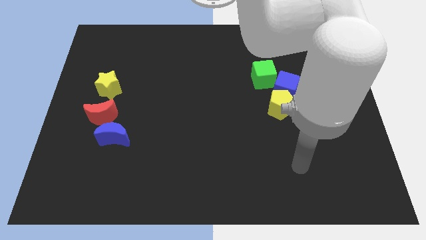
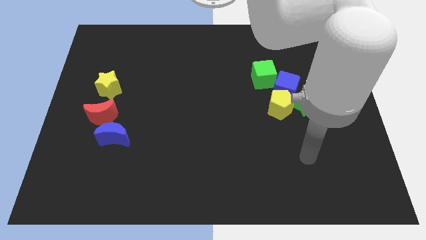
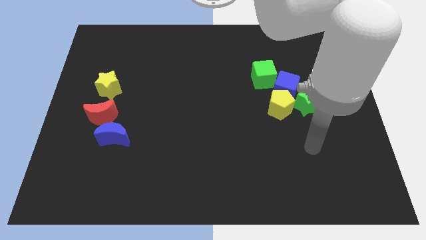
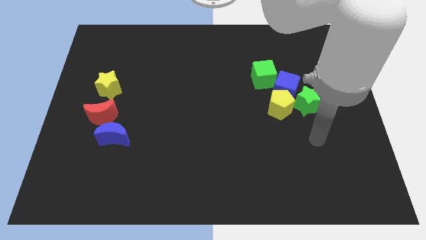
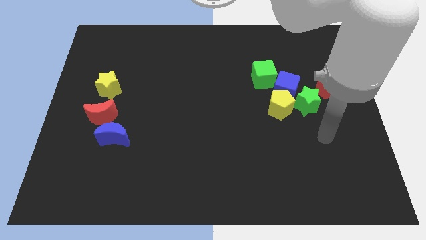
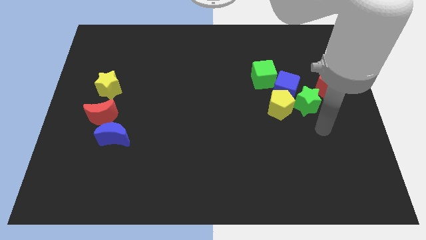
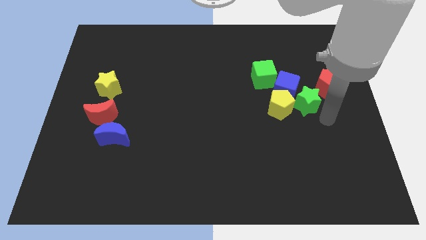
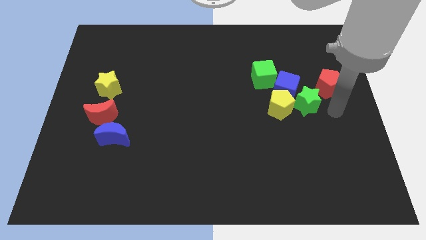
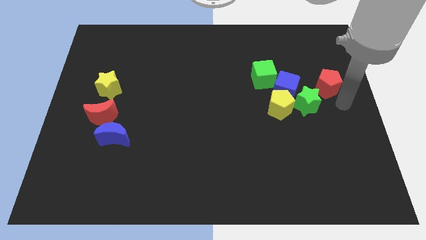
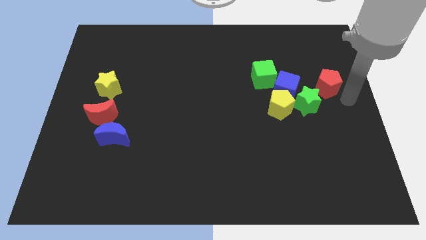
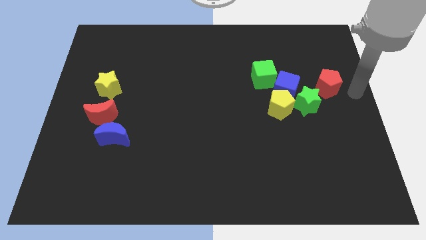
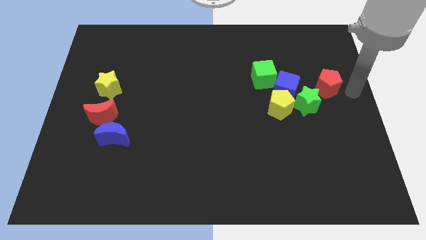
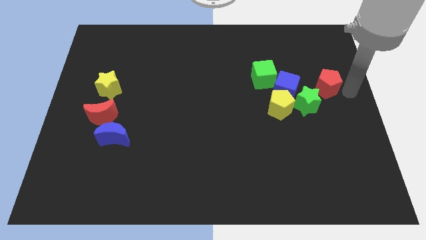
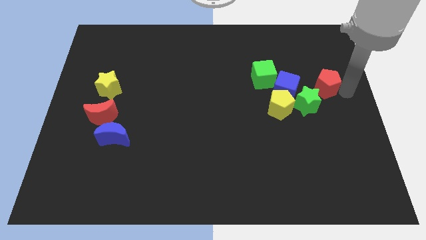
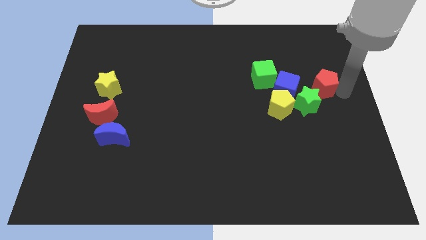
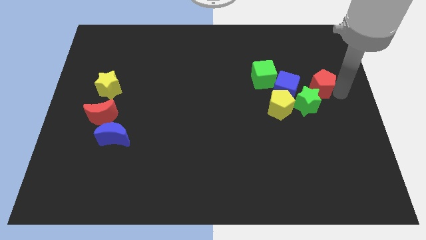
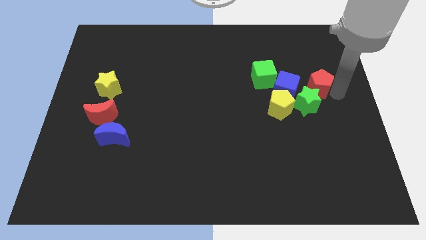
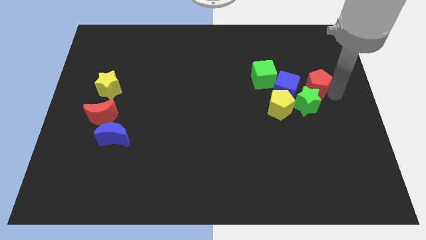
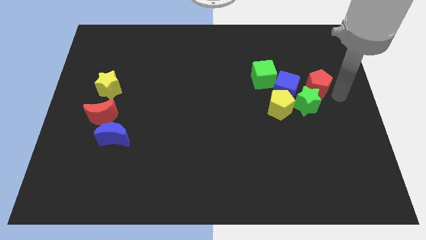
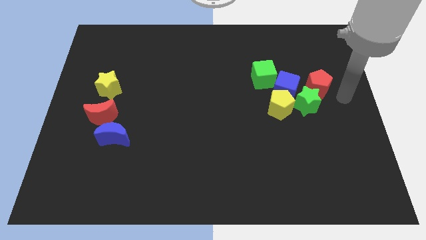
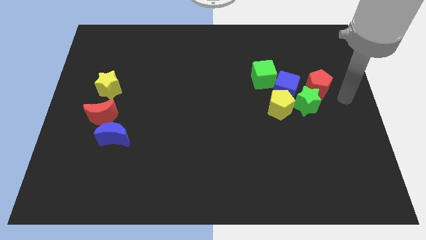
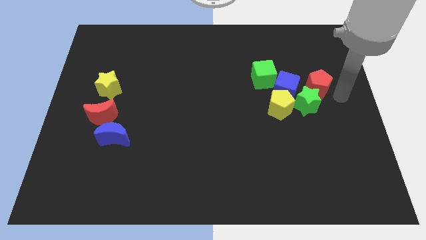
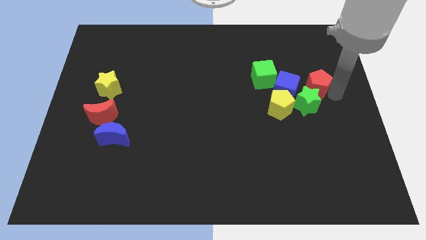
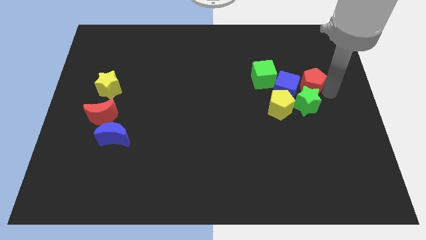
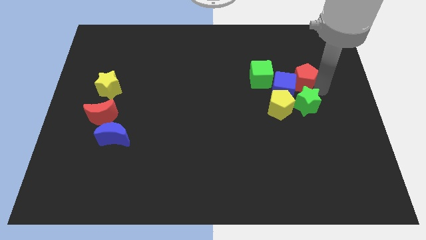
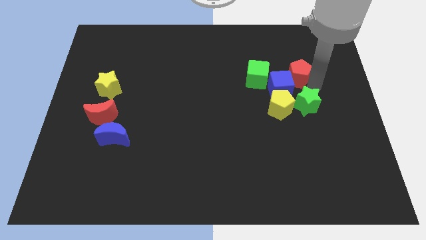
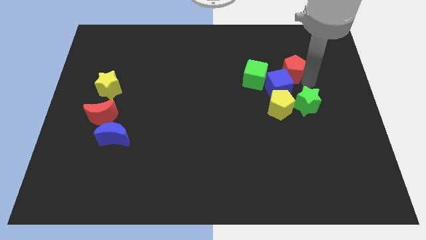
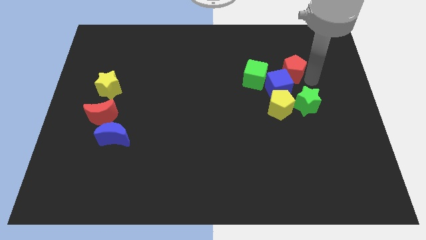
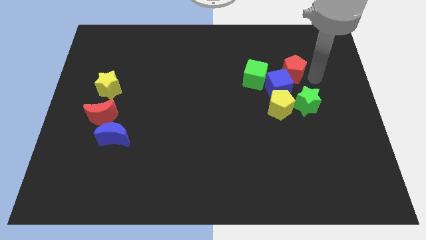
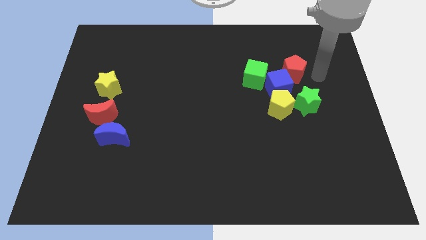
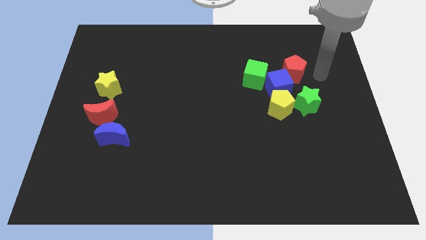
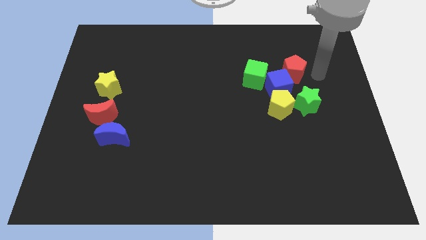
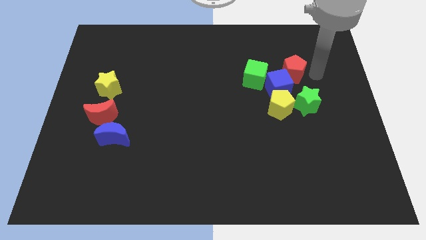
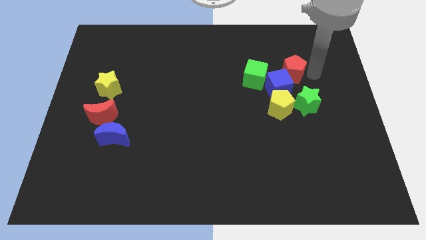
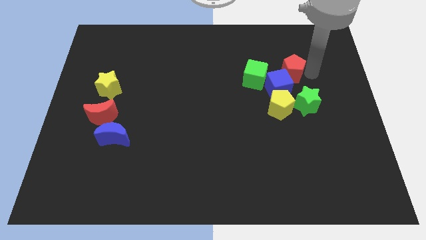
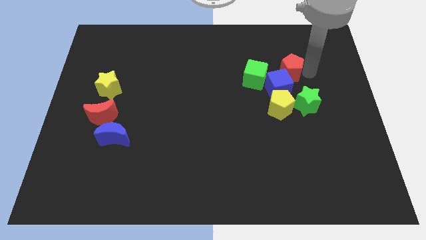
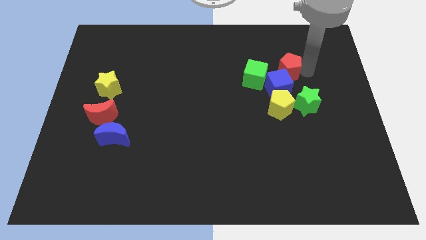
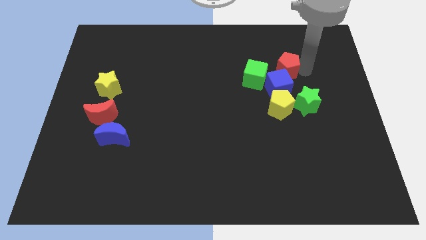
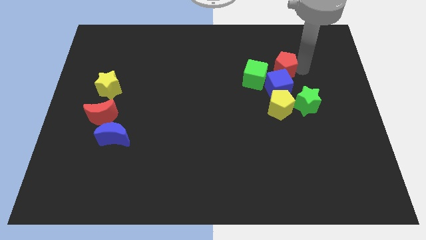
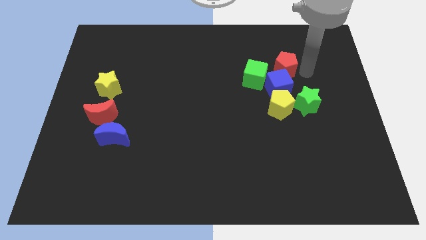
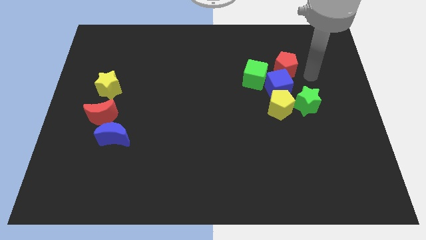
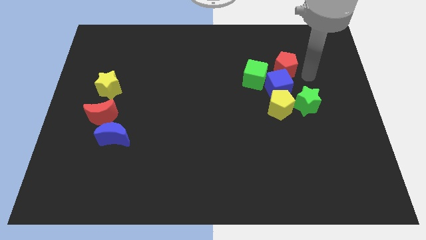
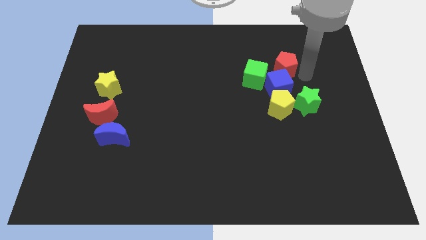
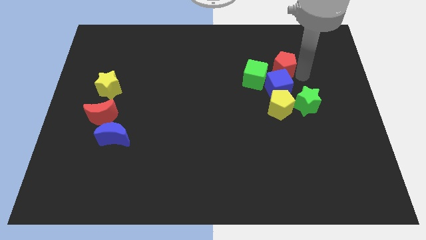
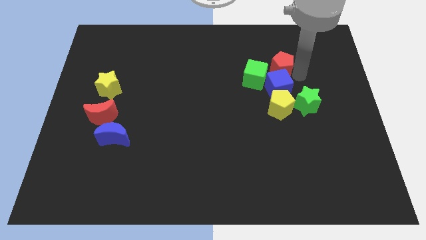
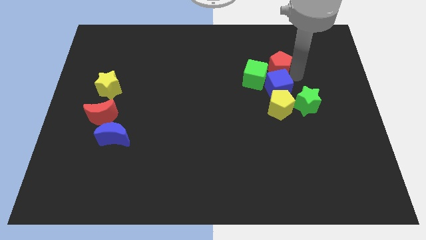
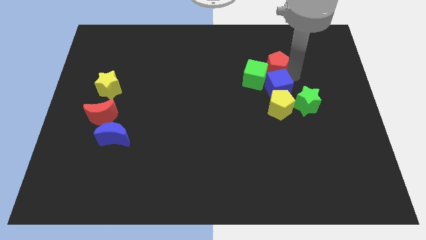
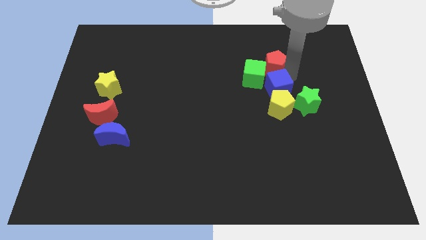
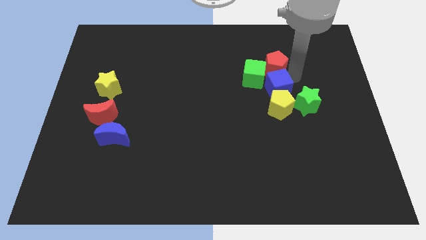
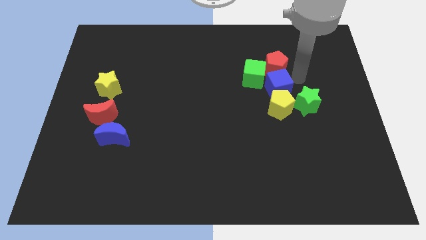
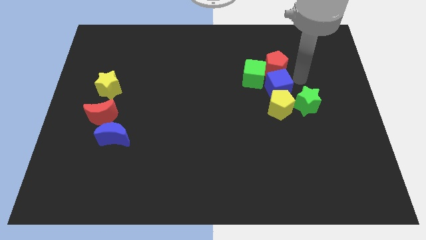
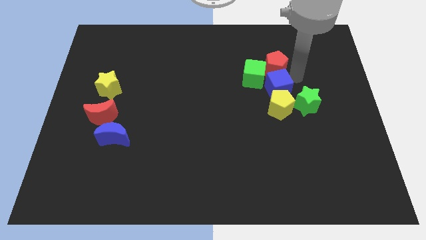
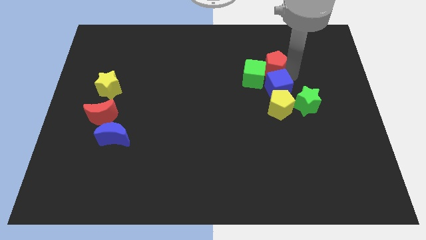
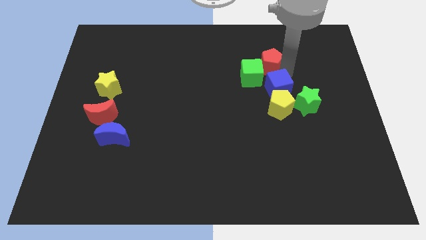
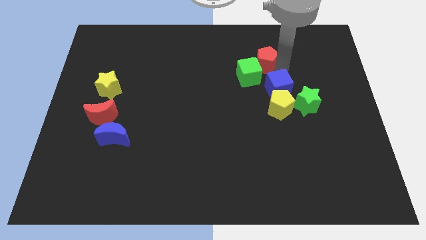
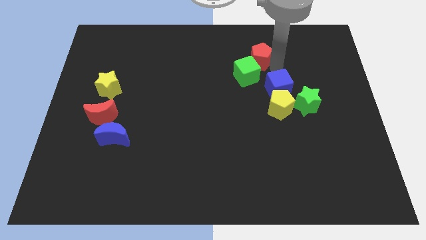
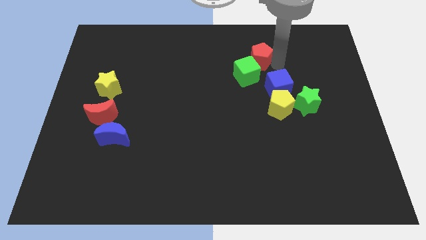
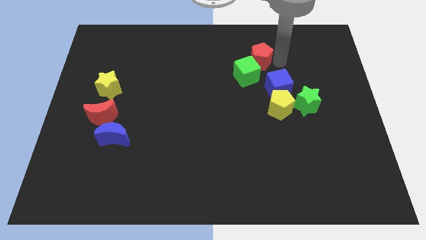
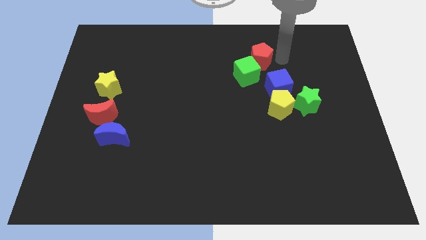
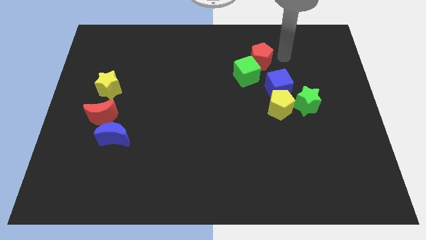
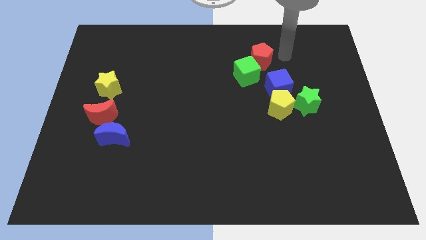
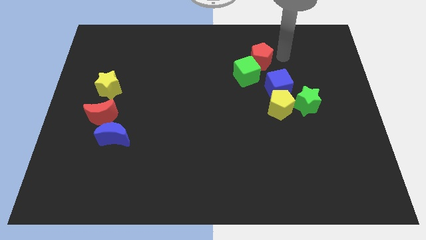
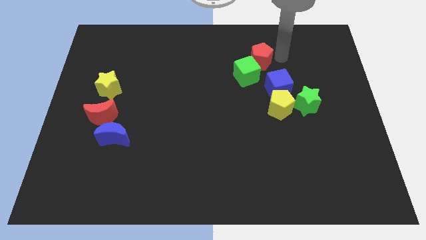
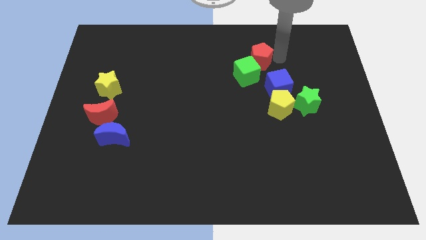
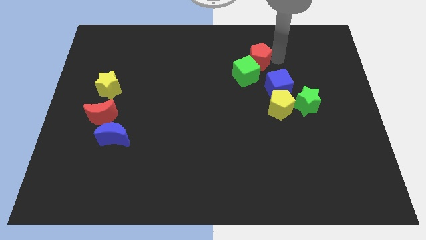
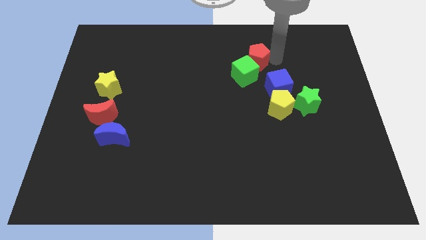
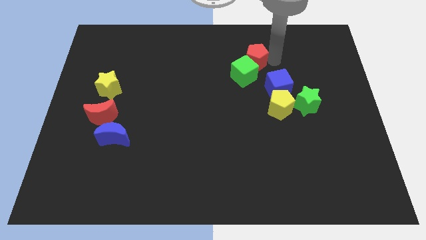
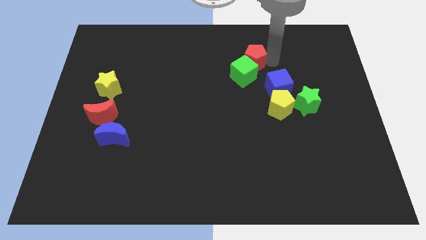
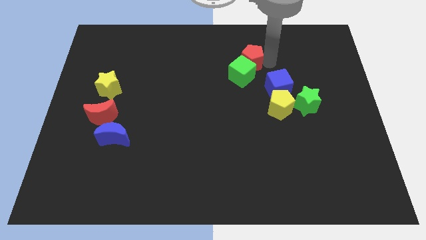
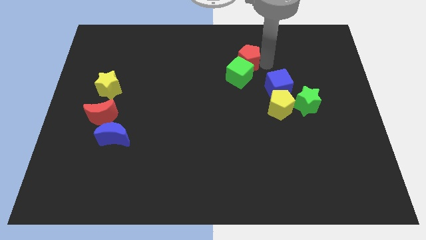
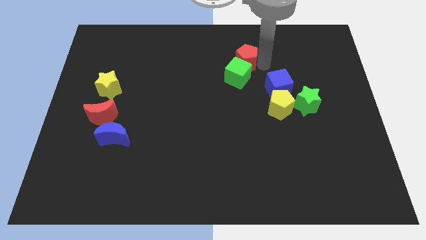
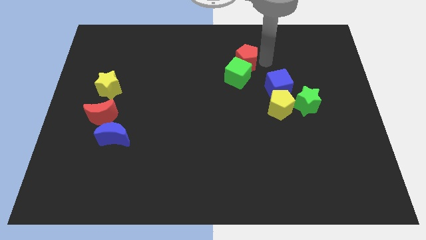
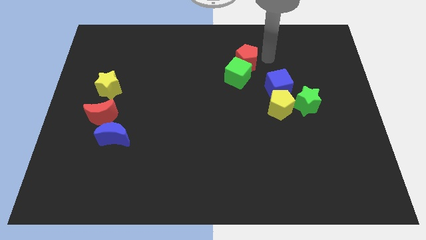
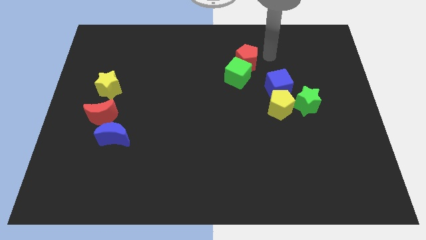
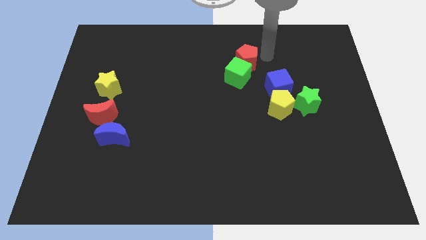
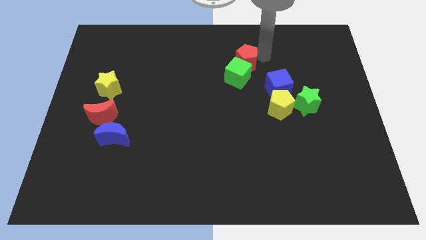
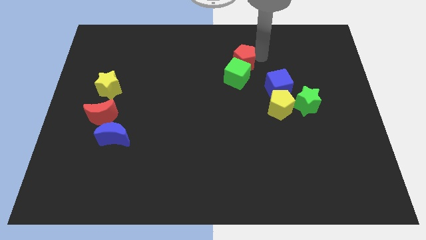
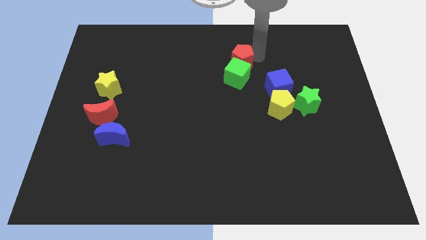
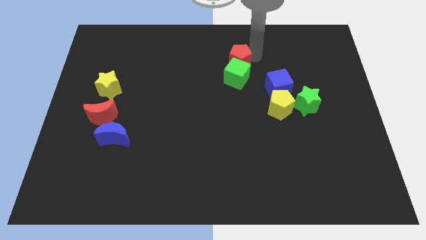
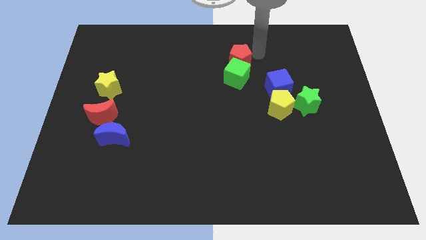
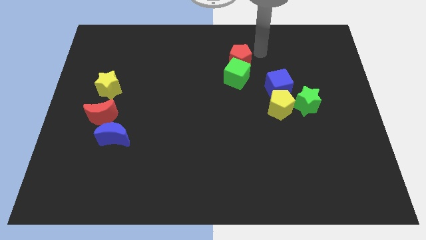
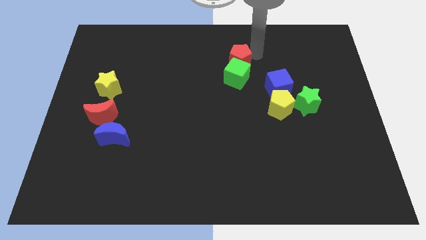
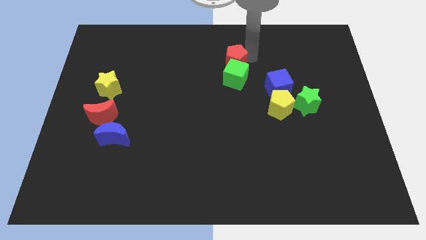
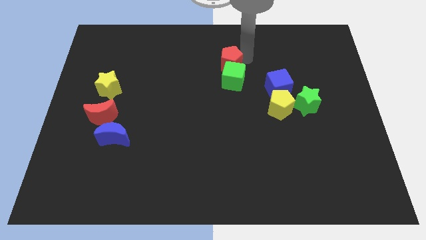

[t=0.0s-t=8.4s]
move the red pentagon to the left
